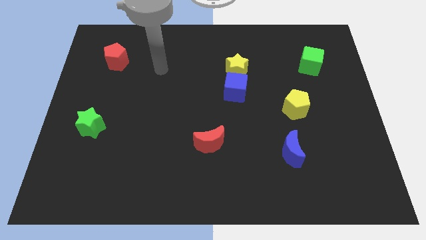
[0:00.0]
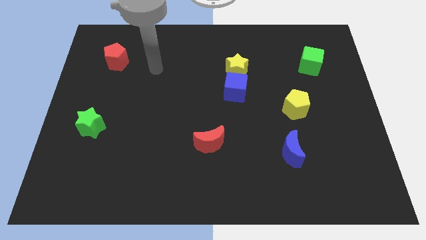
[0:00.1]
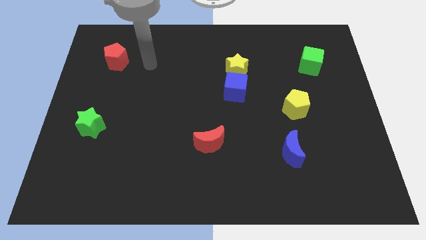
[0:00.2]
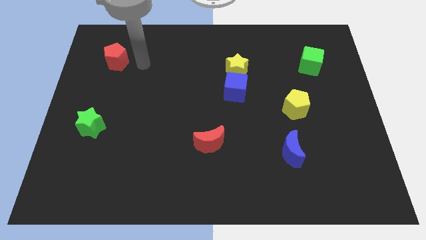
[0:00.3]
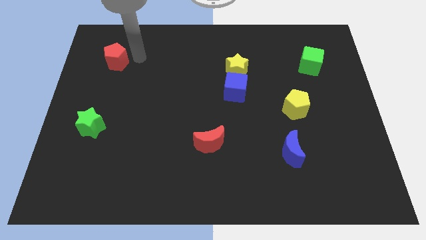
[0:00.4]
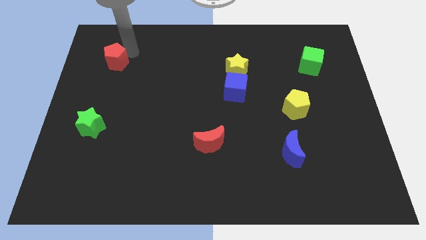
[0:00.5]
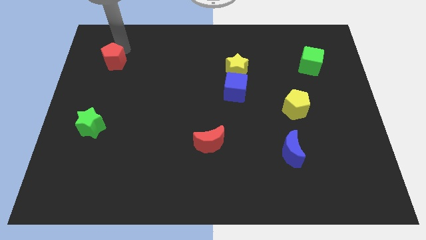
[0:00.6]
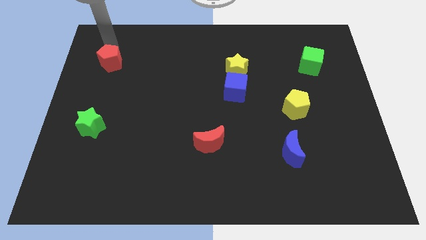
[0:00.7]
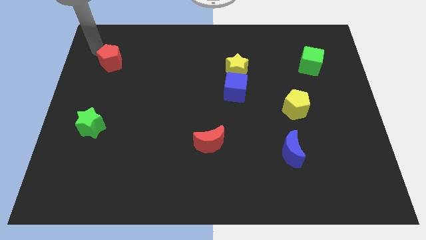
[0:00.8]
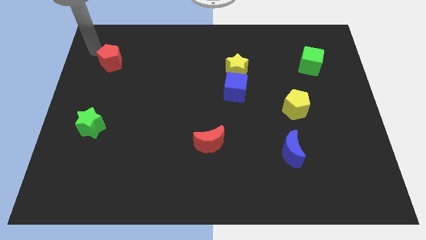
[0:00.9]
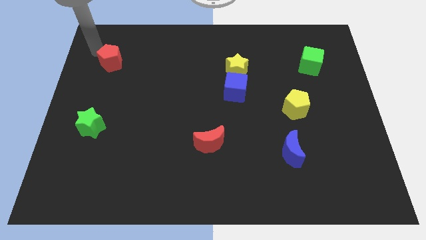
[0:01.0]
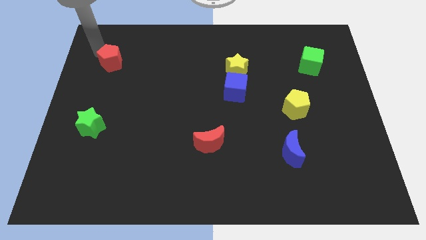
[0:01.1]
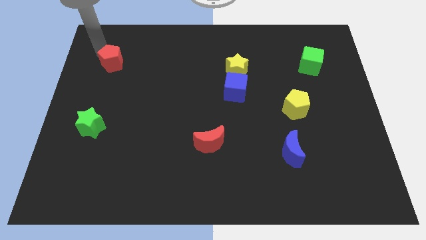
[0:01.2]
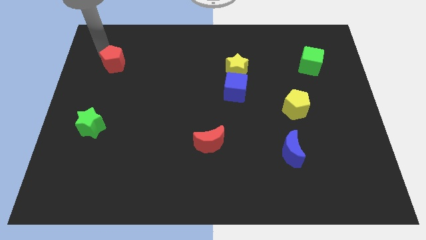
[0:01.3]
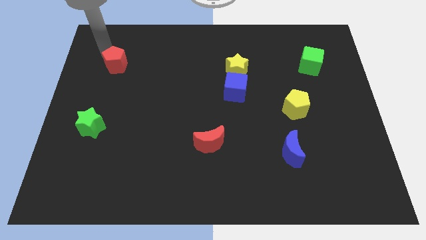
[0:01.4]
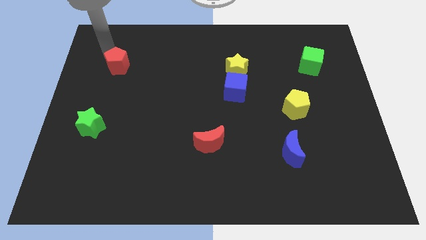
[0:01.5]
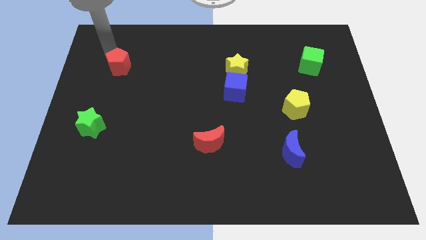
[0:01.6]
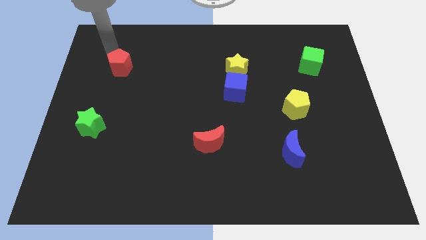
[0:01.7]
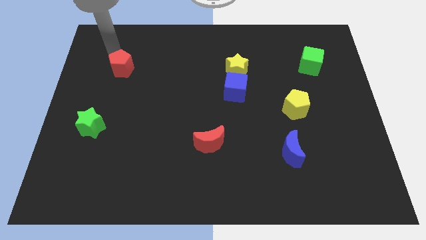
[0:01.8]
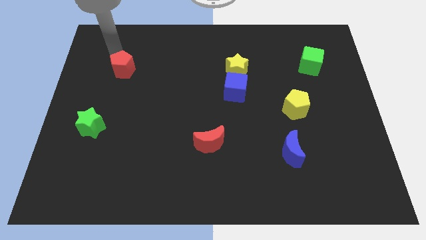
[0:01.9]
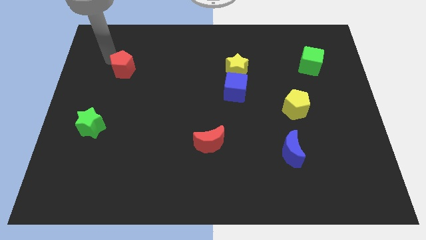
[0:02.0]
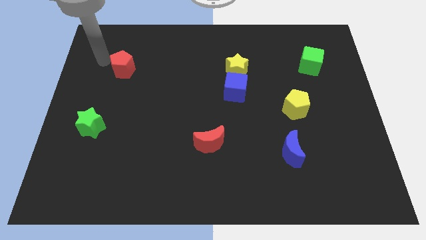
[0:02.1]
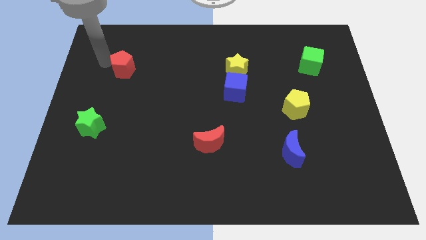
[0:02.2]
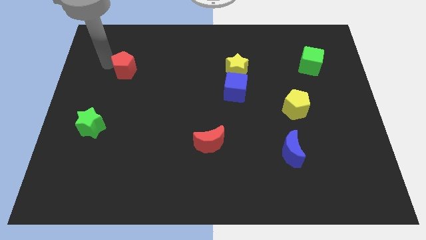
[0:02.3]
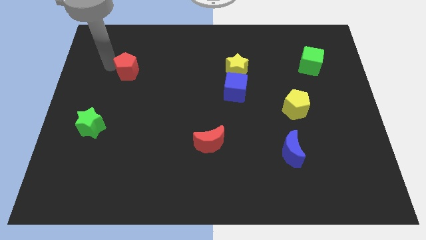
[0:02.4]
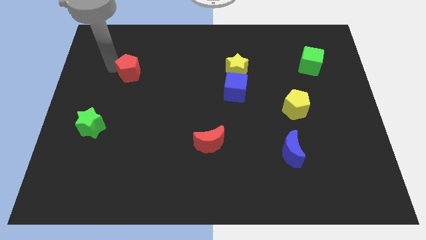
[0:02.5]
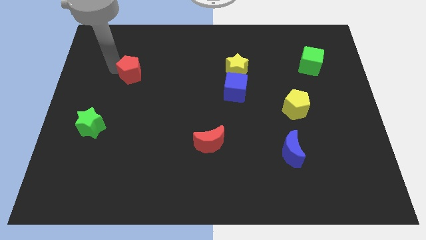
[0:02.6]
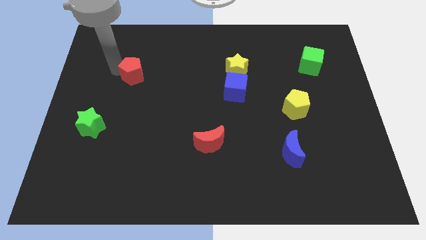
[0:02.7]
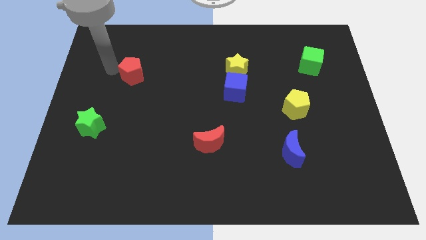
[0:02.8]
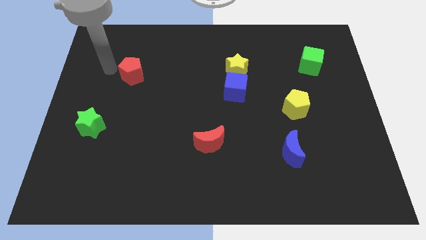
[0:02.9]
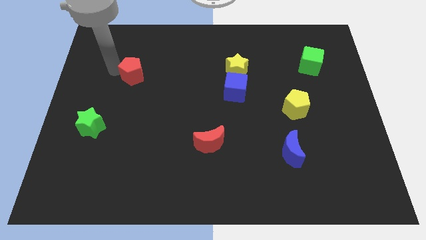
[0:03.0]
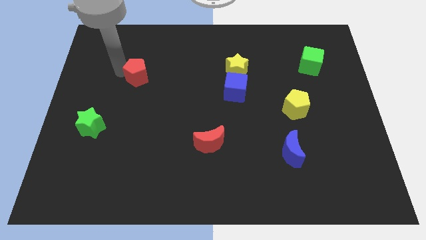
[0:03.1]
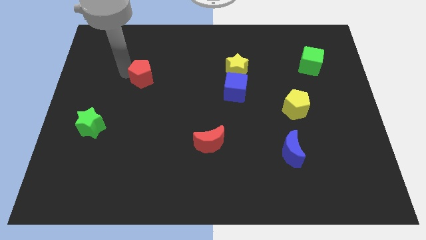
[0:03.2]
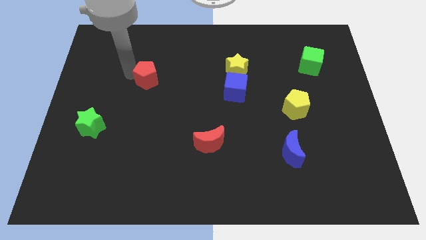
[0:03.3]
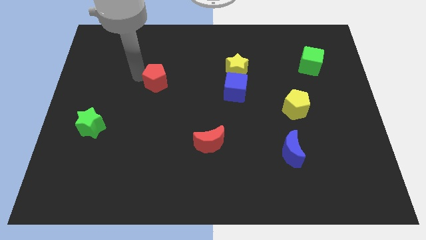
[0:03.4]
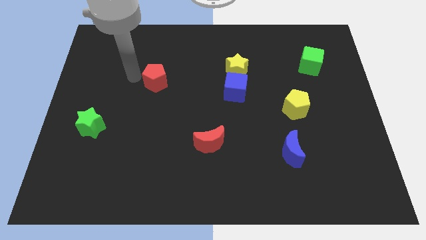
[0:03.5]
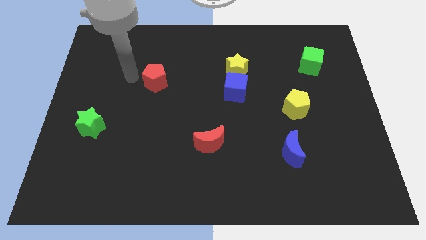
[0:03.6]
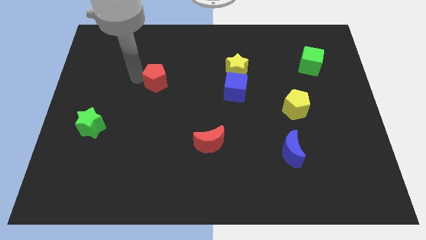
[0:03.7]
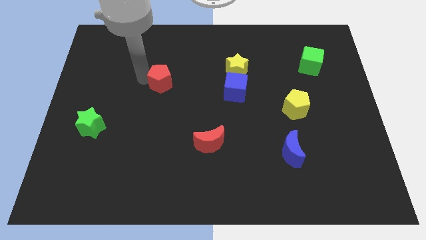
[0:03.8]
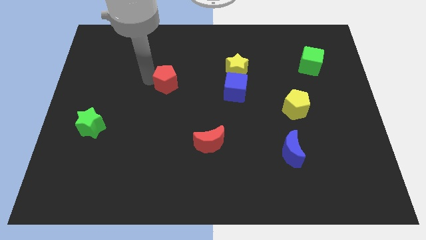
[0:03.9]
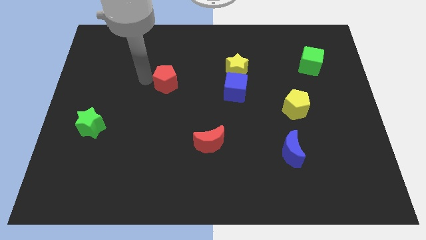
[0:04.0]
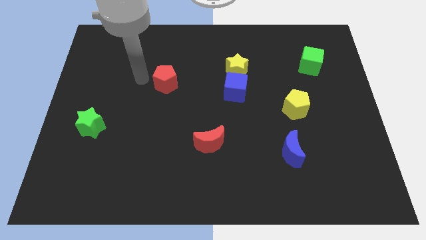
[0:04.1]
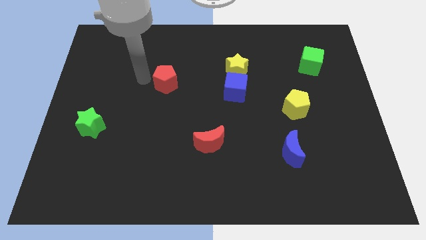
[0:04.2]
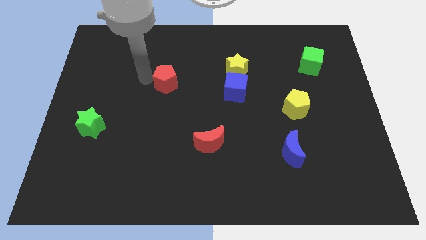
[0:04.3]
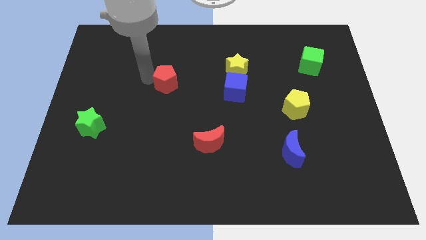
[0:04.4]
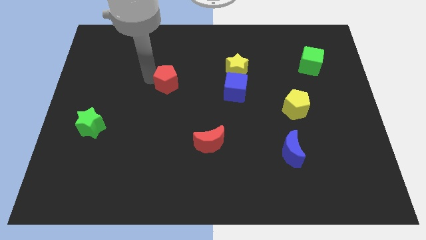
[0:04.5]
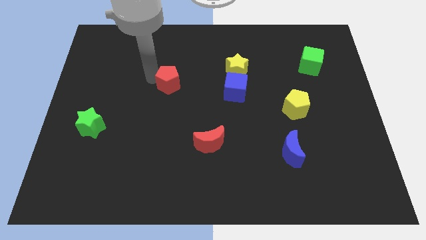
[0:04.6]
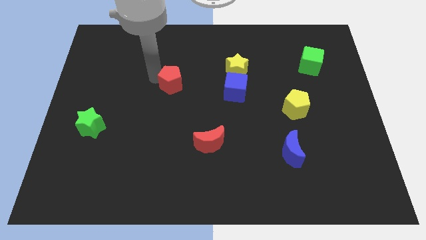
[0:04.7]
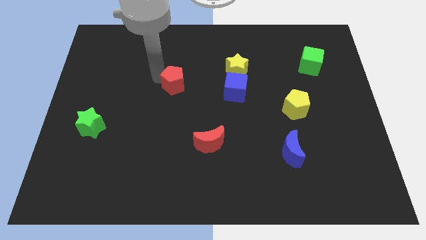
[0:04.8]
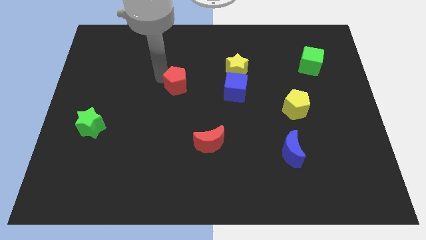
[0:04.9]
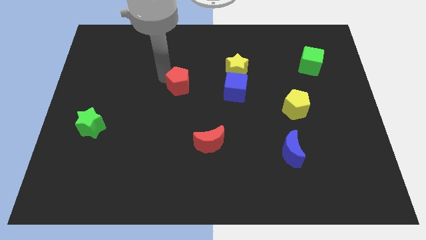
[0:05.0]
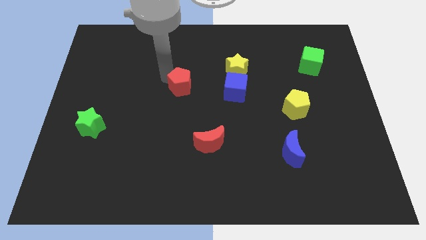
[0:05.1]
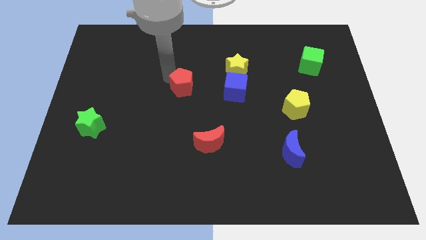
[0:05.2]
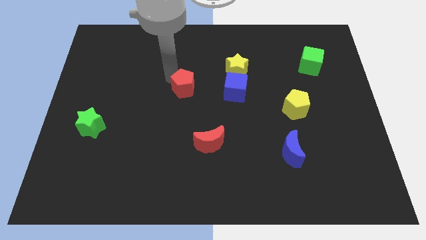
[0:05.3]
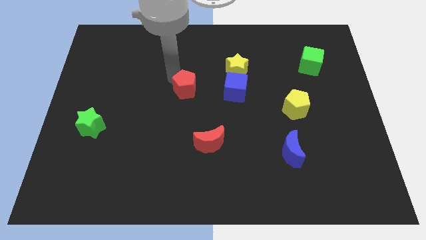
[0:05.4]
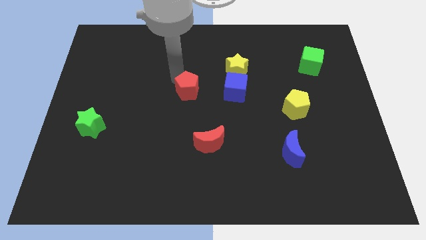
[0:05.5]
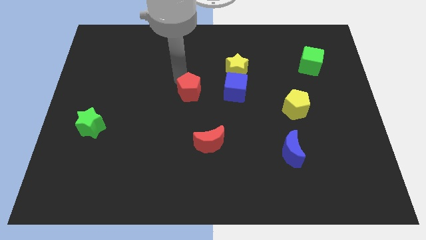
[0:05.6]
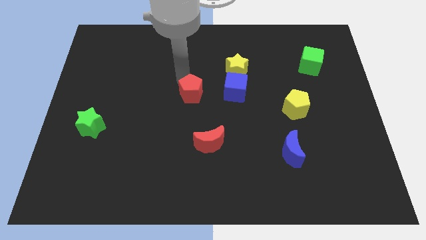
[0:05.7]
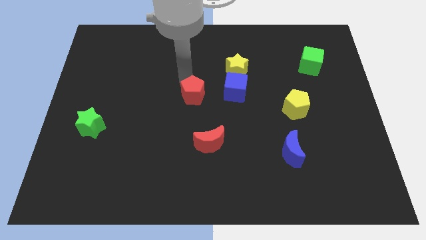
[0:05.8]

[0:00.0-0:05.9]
push the red pentagon to the top of the red moon

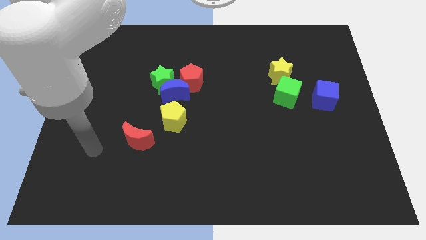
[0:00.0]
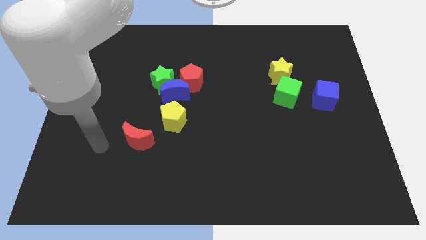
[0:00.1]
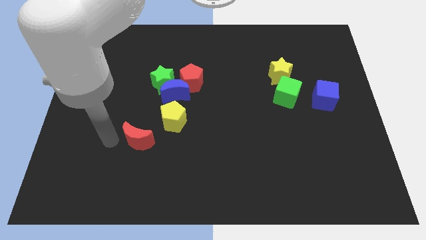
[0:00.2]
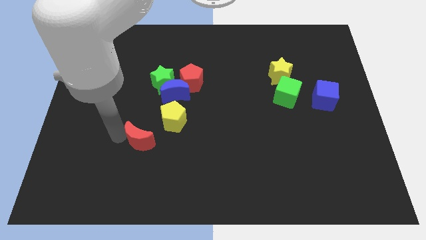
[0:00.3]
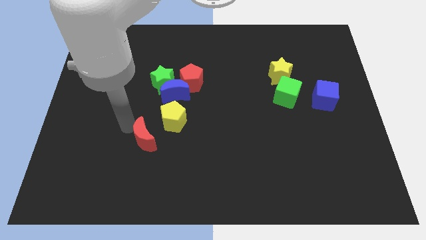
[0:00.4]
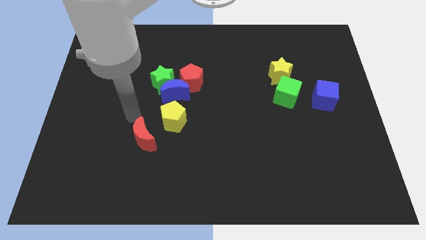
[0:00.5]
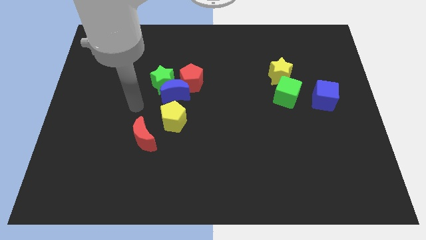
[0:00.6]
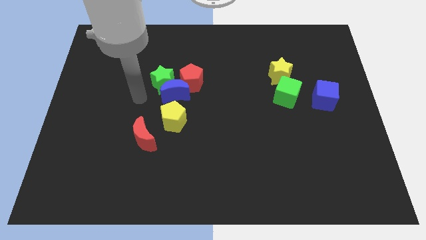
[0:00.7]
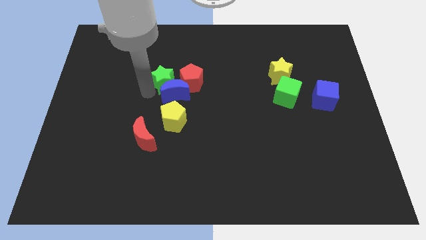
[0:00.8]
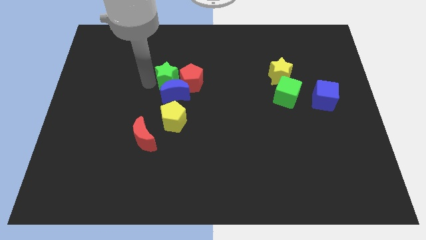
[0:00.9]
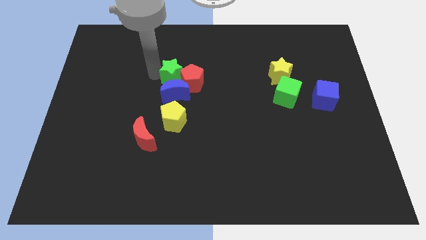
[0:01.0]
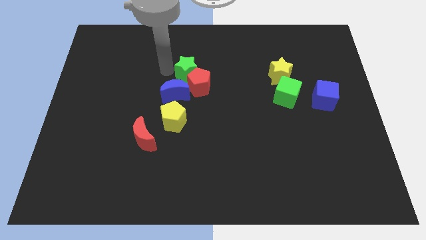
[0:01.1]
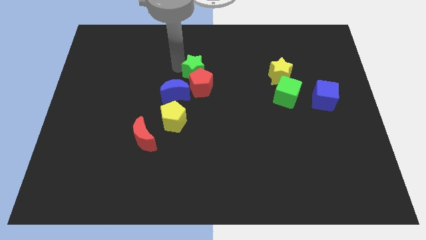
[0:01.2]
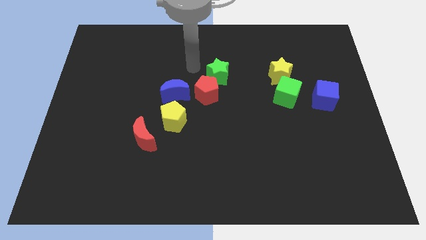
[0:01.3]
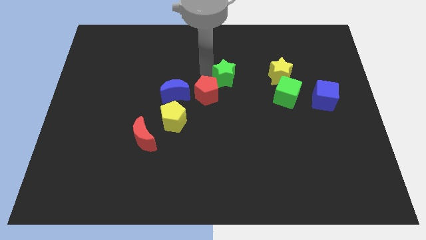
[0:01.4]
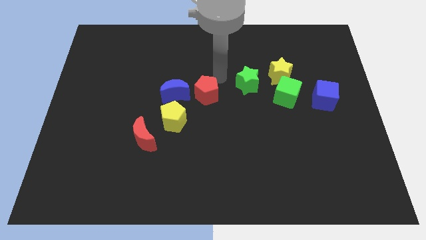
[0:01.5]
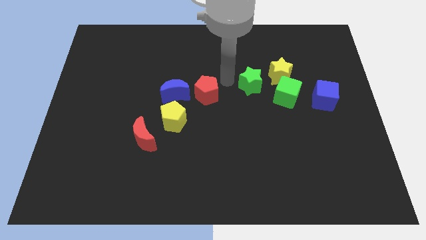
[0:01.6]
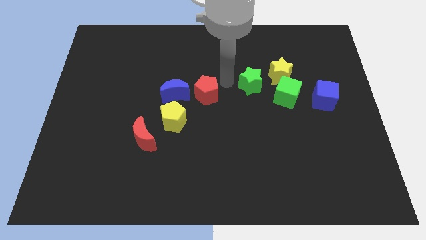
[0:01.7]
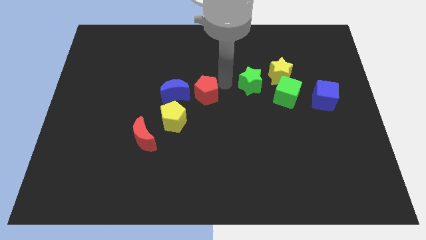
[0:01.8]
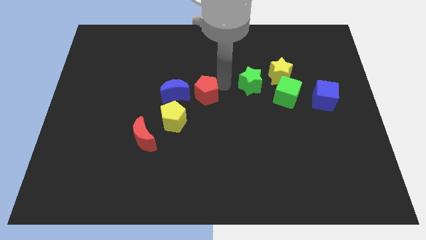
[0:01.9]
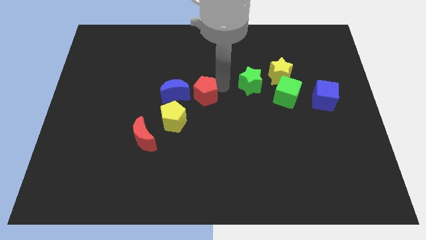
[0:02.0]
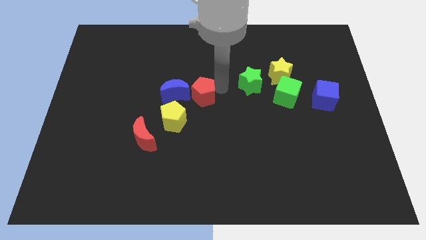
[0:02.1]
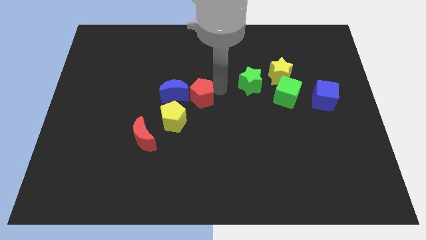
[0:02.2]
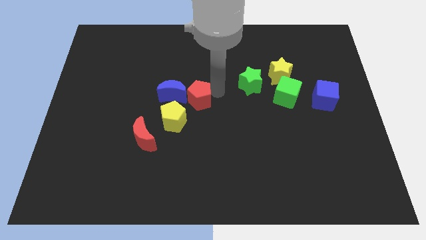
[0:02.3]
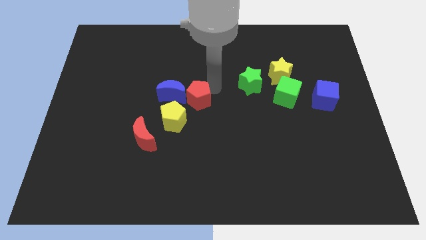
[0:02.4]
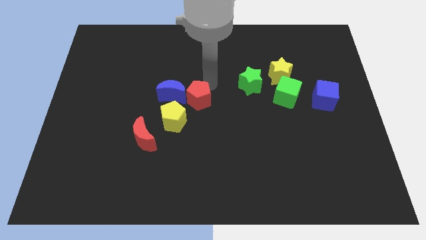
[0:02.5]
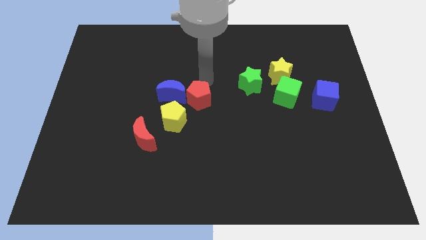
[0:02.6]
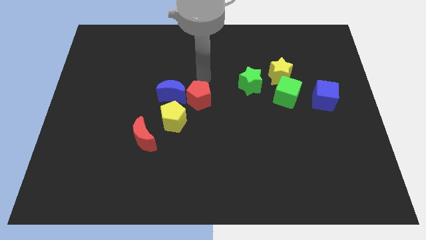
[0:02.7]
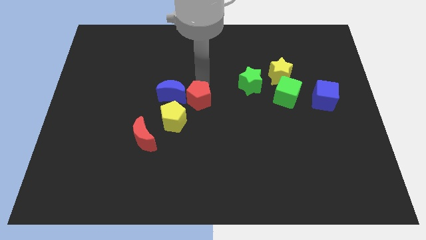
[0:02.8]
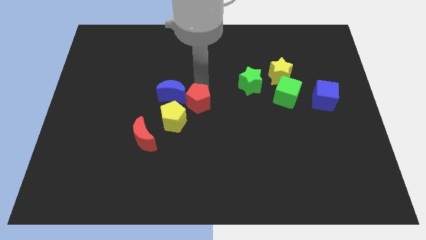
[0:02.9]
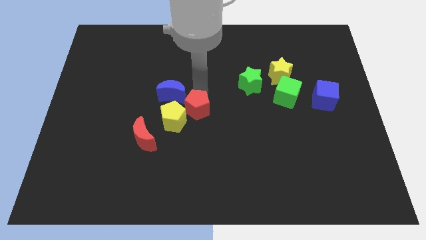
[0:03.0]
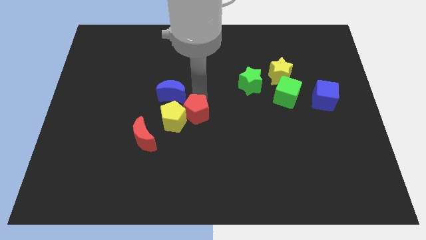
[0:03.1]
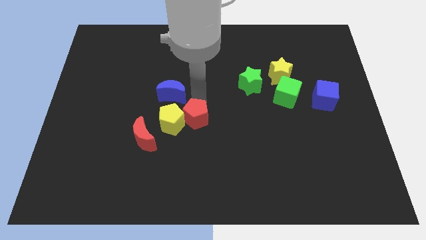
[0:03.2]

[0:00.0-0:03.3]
put the red pentagon to the bottom right side of the yellow pentagon
